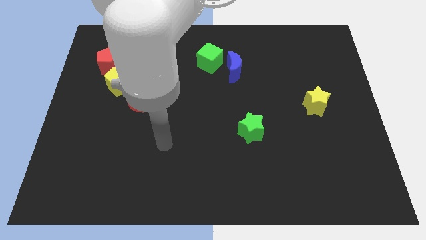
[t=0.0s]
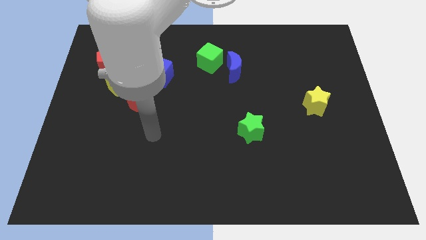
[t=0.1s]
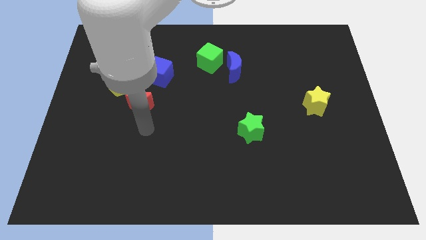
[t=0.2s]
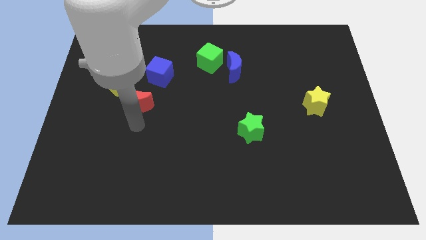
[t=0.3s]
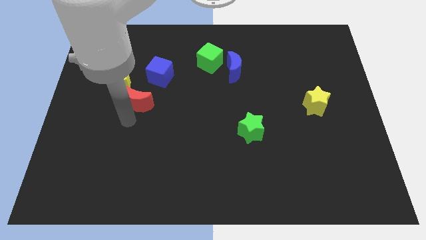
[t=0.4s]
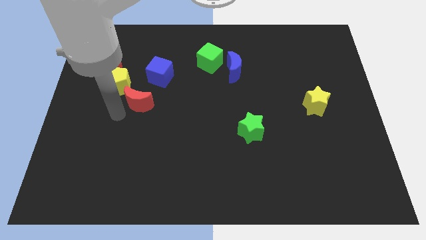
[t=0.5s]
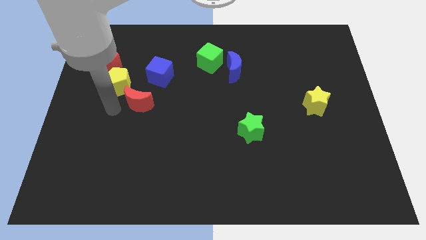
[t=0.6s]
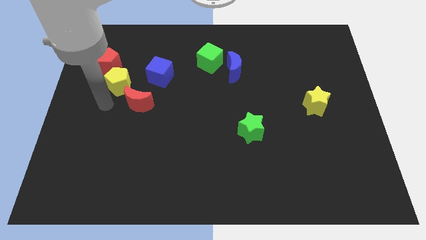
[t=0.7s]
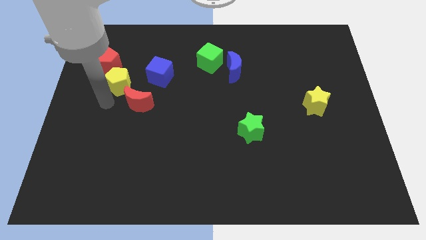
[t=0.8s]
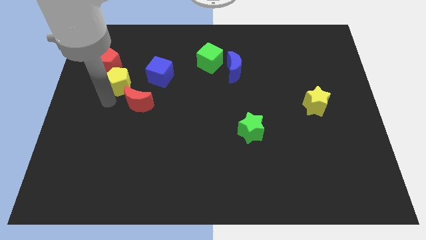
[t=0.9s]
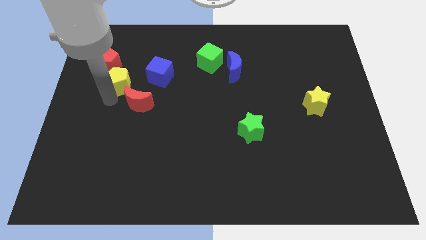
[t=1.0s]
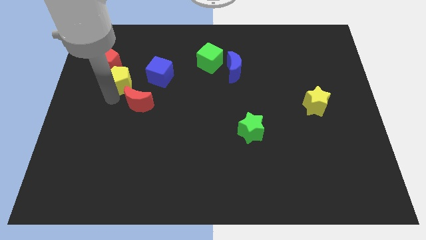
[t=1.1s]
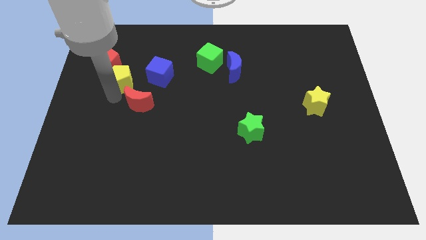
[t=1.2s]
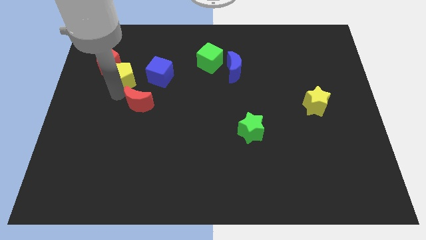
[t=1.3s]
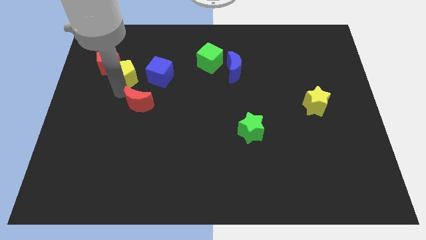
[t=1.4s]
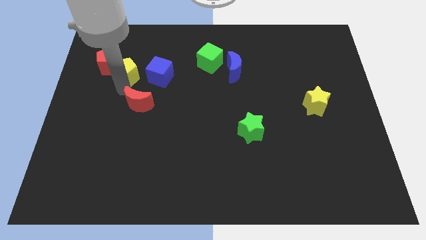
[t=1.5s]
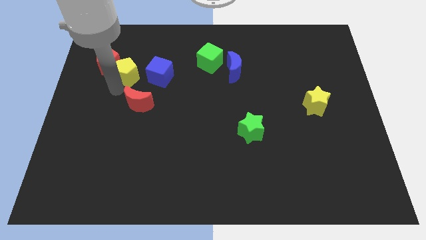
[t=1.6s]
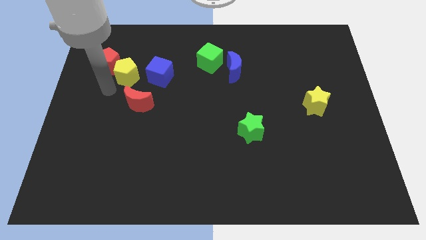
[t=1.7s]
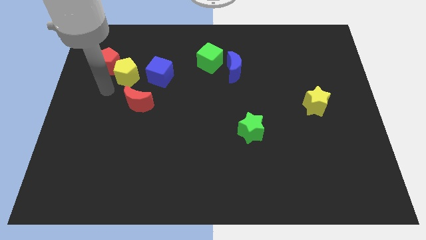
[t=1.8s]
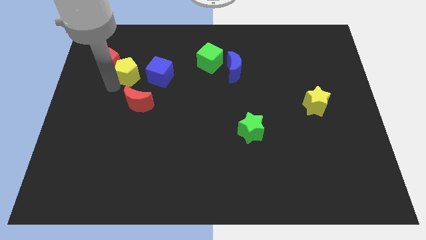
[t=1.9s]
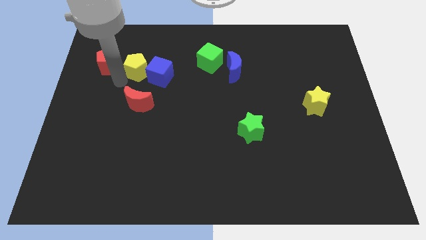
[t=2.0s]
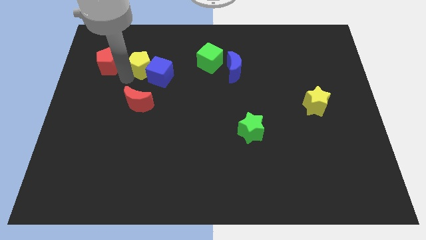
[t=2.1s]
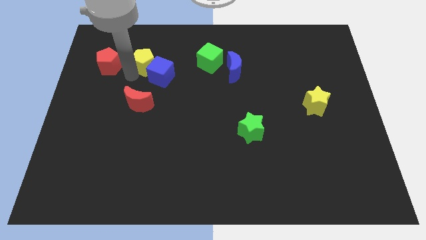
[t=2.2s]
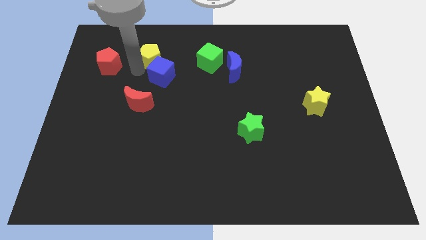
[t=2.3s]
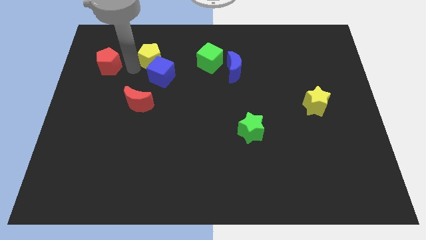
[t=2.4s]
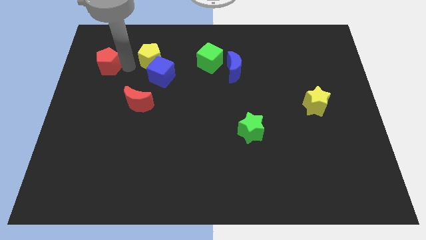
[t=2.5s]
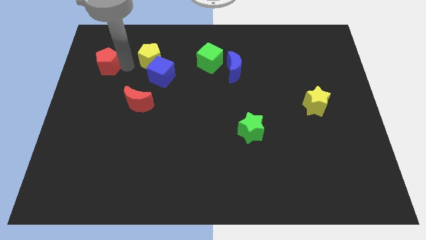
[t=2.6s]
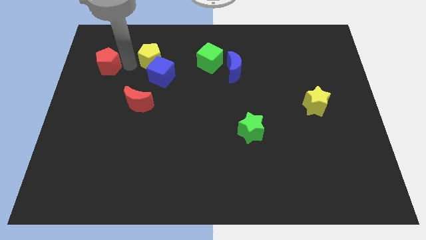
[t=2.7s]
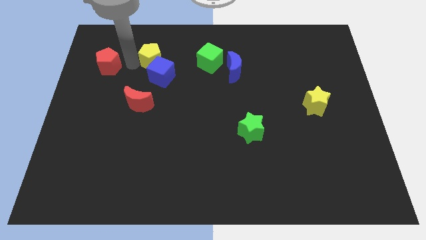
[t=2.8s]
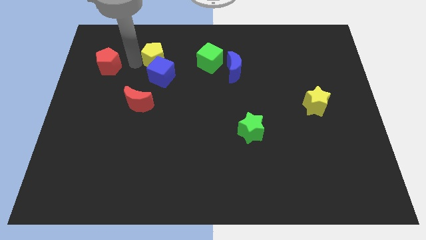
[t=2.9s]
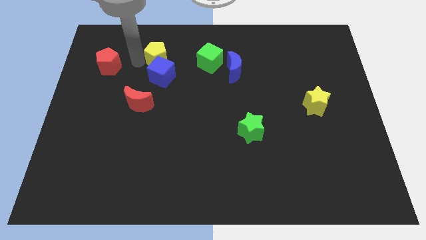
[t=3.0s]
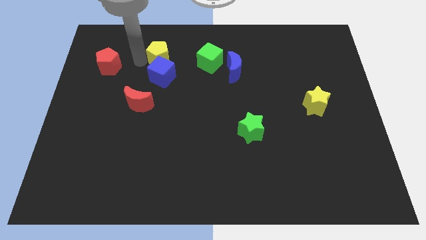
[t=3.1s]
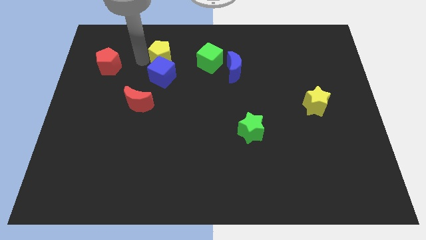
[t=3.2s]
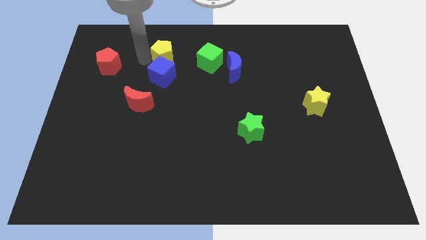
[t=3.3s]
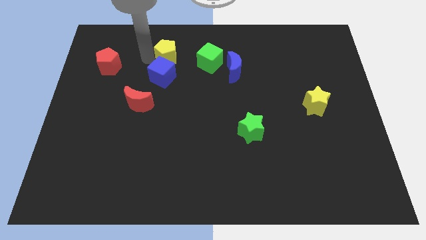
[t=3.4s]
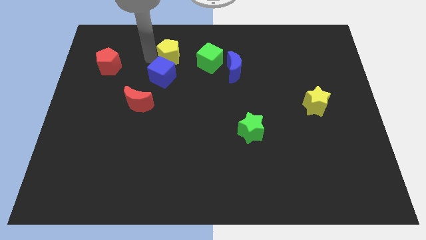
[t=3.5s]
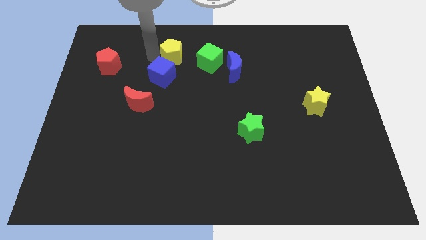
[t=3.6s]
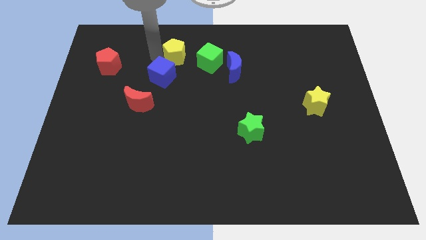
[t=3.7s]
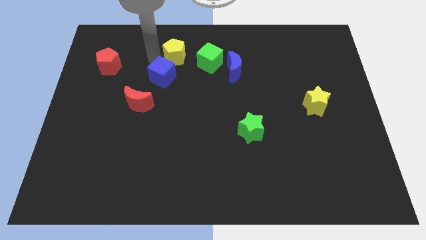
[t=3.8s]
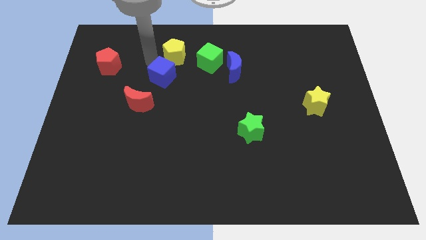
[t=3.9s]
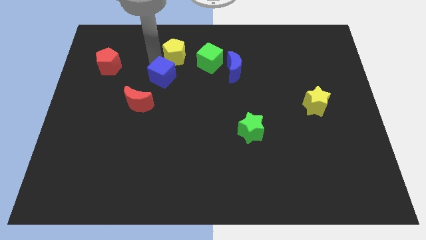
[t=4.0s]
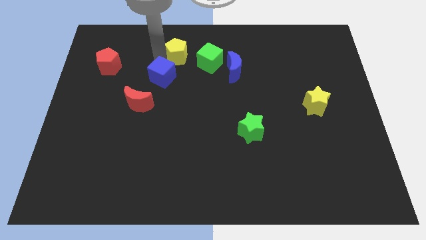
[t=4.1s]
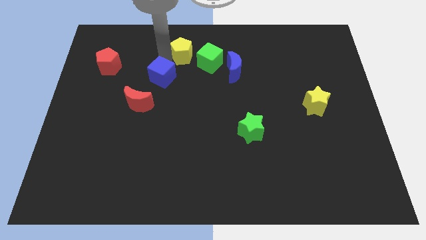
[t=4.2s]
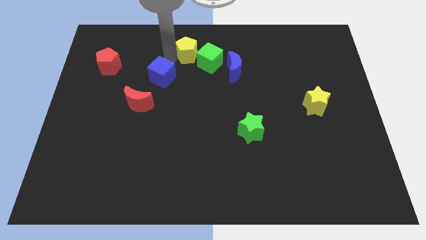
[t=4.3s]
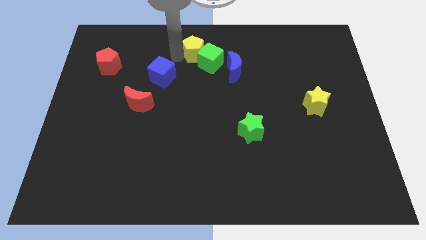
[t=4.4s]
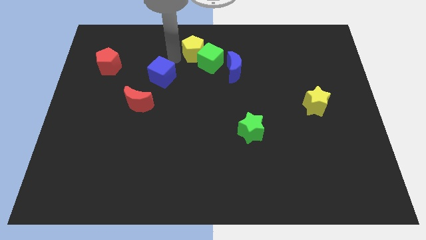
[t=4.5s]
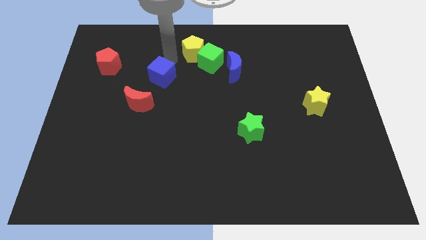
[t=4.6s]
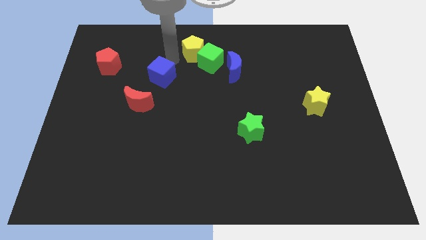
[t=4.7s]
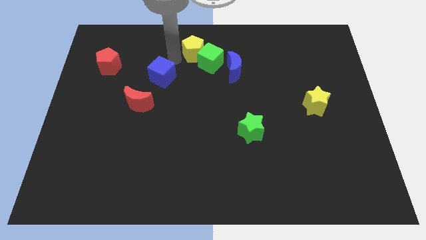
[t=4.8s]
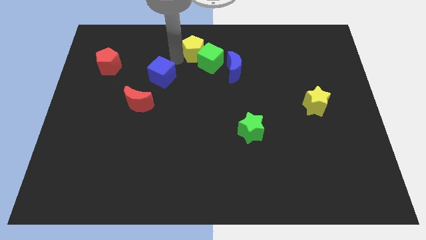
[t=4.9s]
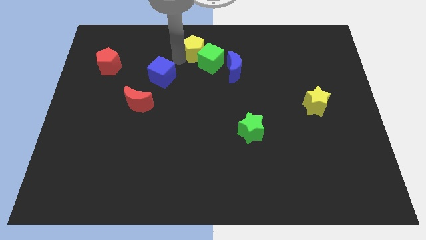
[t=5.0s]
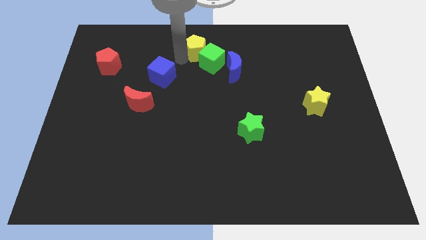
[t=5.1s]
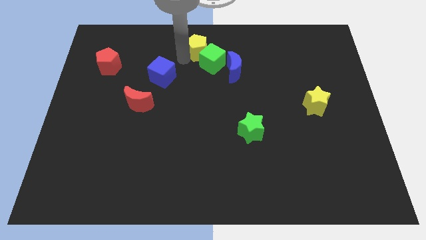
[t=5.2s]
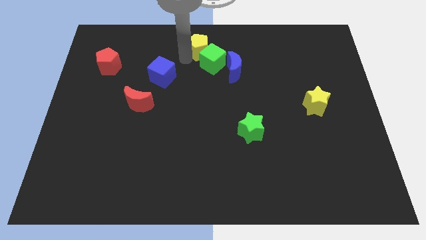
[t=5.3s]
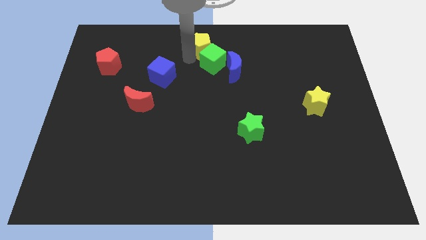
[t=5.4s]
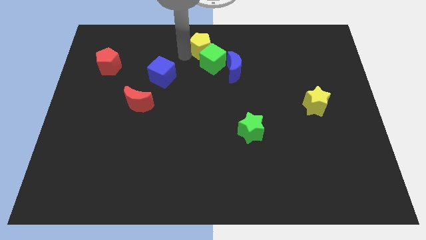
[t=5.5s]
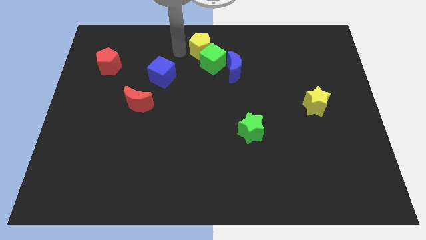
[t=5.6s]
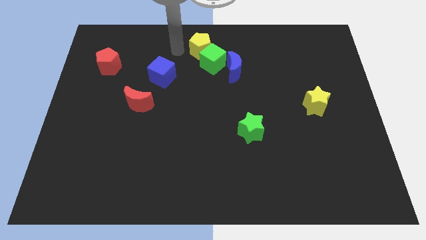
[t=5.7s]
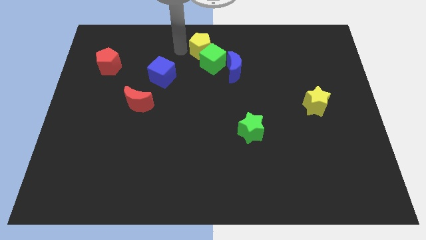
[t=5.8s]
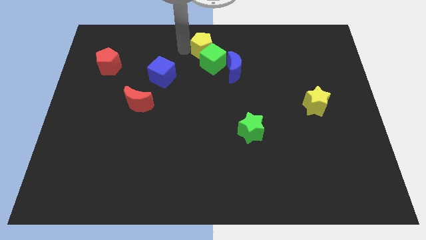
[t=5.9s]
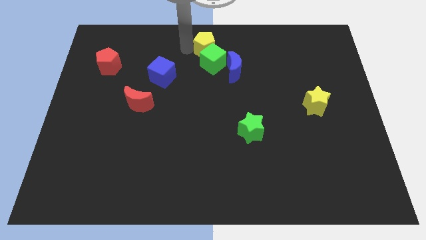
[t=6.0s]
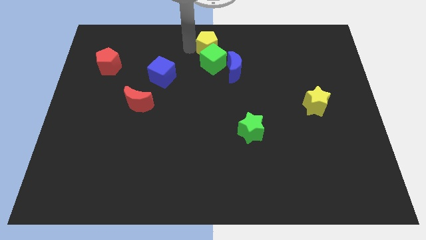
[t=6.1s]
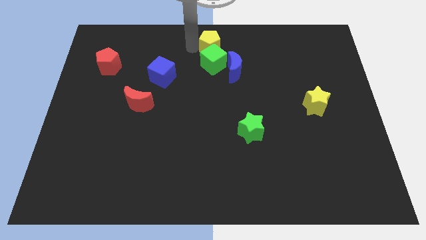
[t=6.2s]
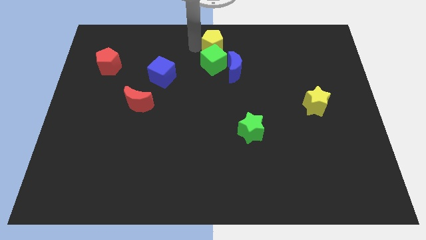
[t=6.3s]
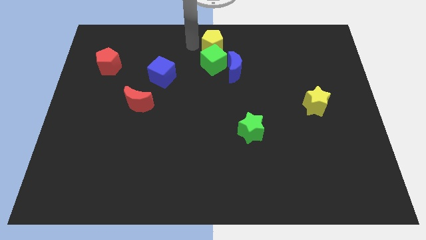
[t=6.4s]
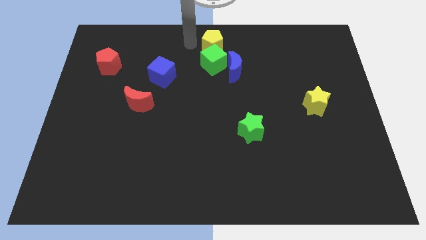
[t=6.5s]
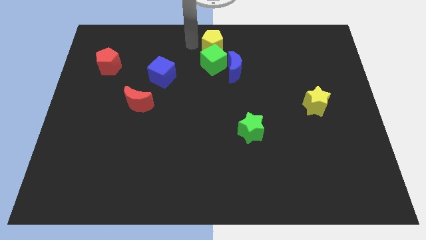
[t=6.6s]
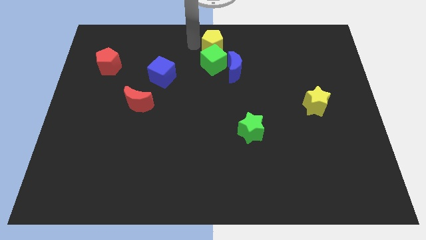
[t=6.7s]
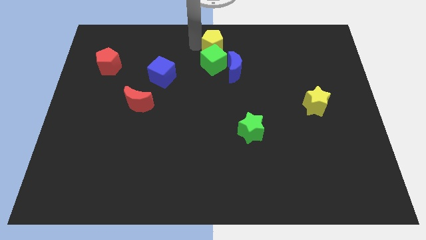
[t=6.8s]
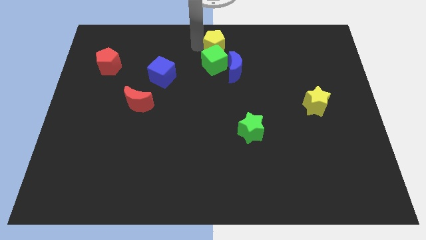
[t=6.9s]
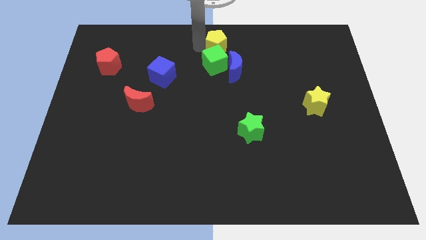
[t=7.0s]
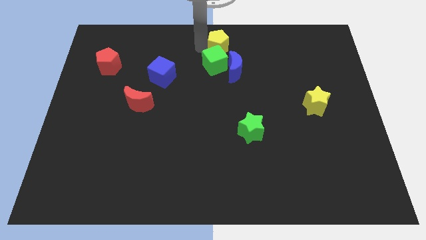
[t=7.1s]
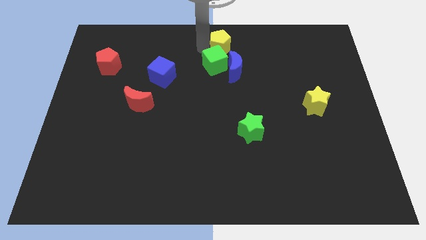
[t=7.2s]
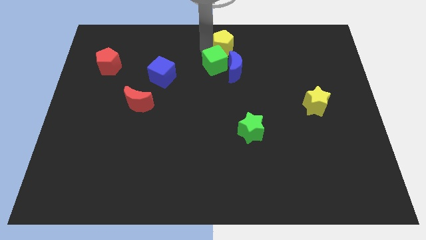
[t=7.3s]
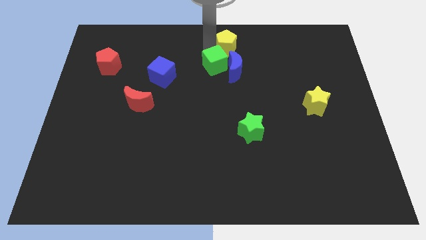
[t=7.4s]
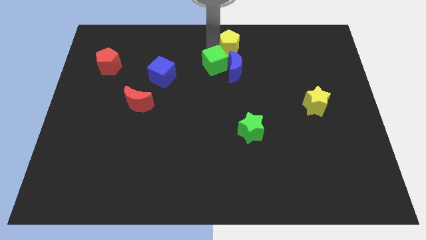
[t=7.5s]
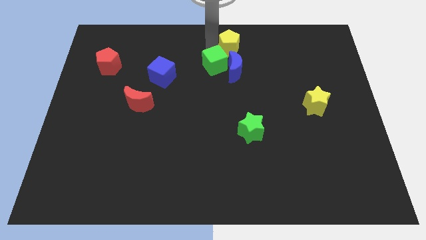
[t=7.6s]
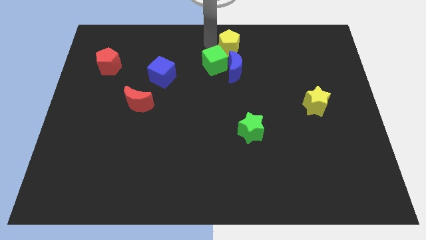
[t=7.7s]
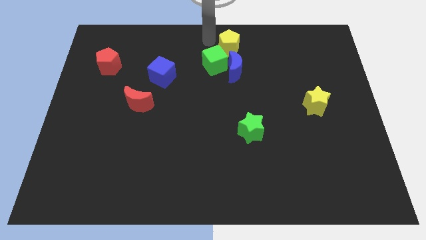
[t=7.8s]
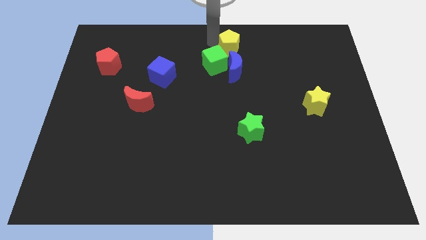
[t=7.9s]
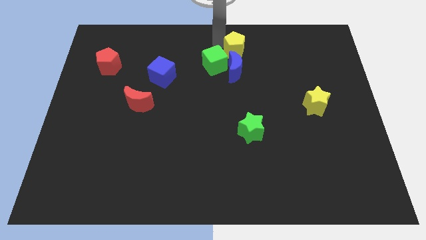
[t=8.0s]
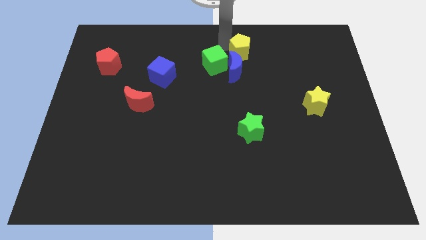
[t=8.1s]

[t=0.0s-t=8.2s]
move the yellow pentagon to the top right side of the blue moon
